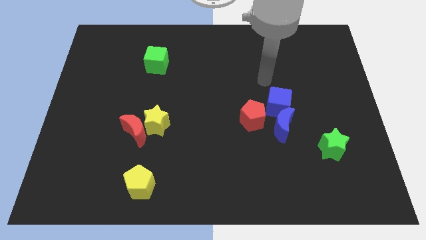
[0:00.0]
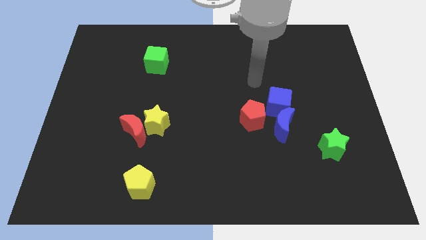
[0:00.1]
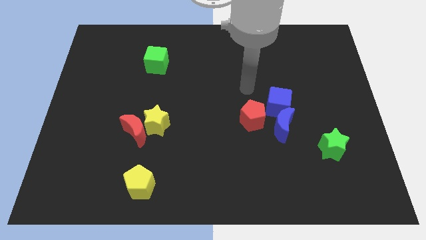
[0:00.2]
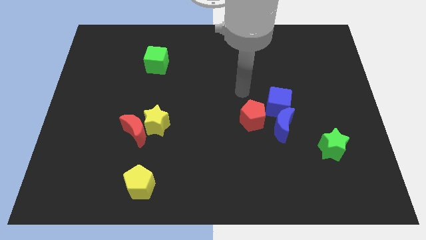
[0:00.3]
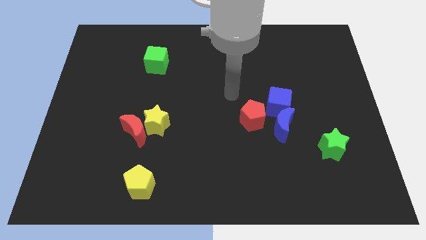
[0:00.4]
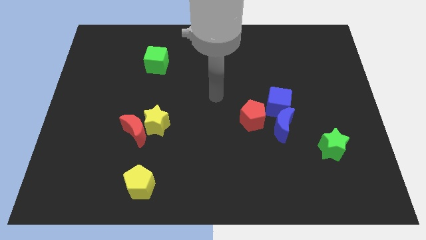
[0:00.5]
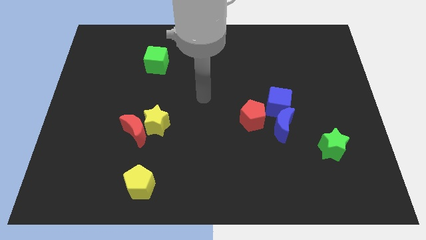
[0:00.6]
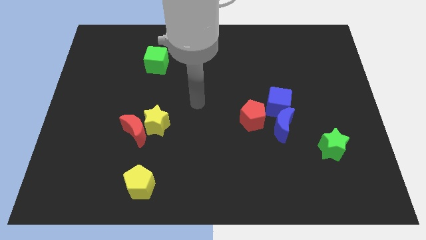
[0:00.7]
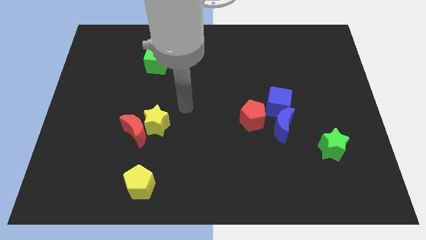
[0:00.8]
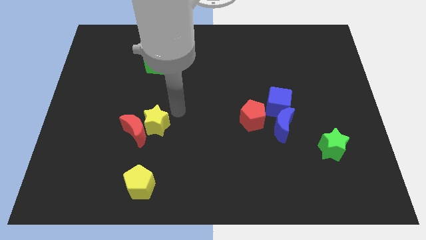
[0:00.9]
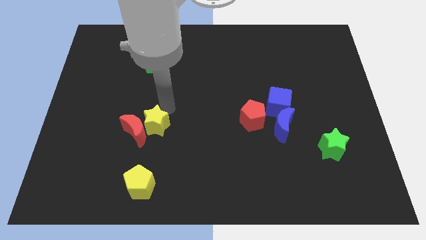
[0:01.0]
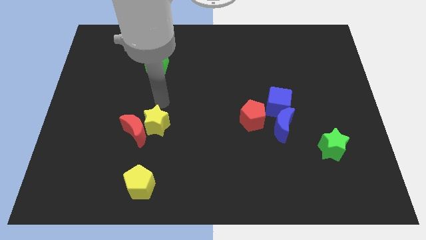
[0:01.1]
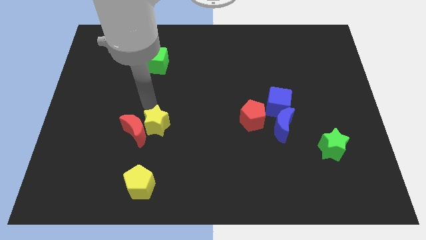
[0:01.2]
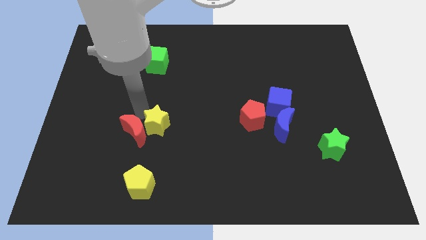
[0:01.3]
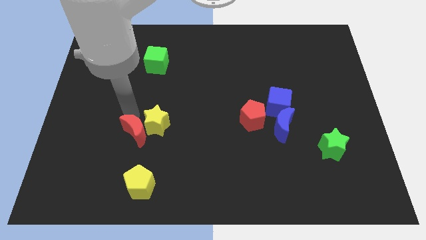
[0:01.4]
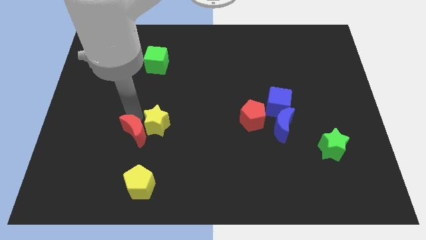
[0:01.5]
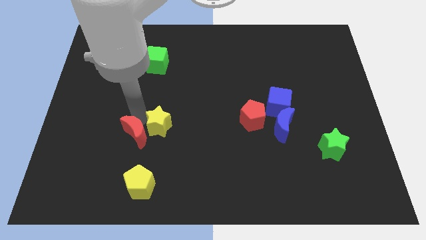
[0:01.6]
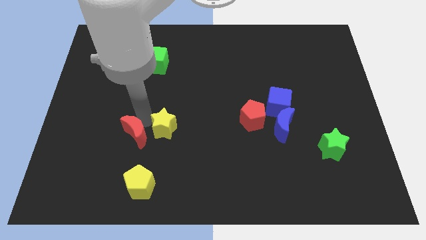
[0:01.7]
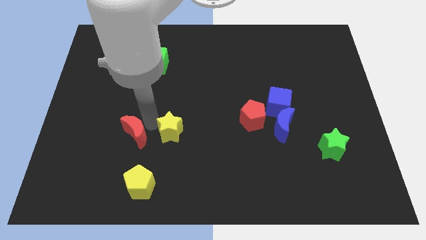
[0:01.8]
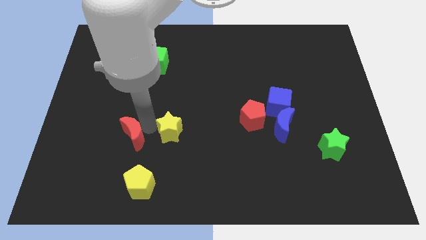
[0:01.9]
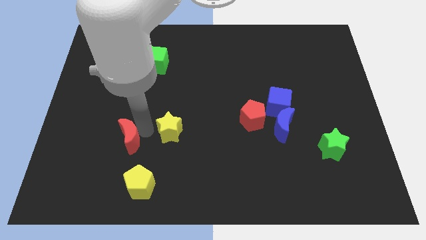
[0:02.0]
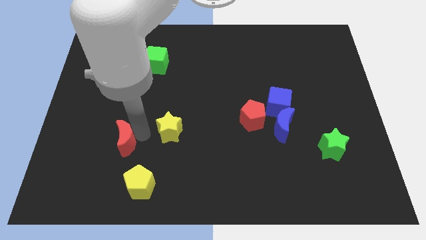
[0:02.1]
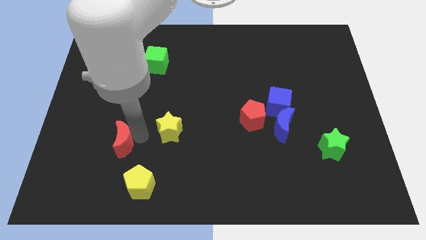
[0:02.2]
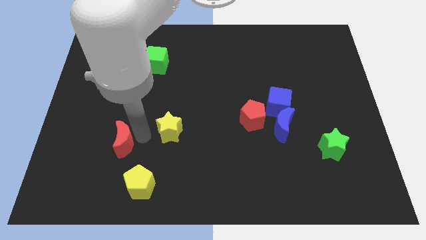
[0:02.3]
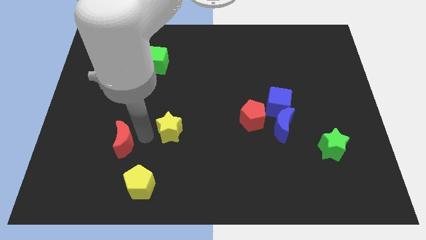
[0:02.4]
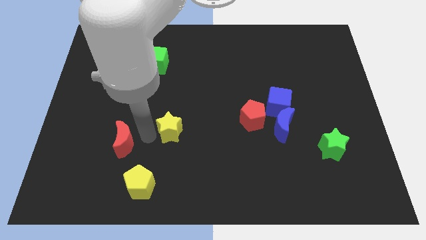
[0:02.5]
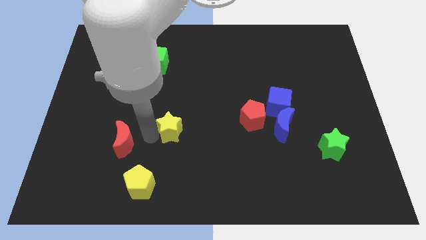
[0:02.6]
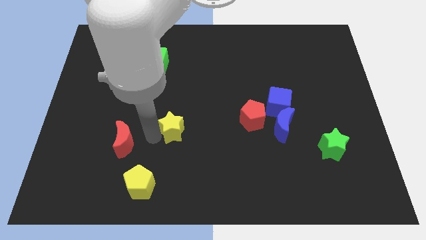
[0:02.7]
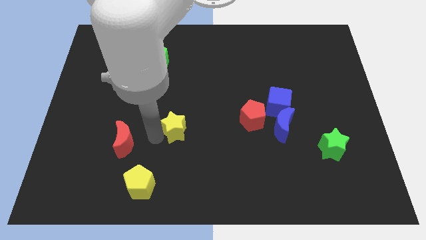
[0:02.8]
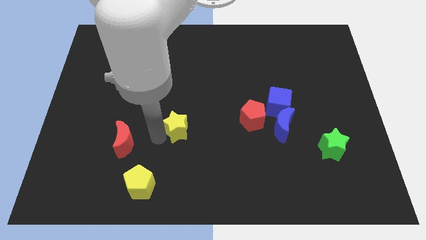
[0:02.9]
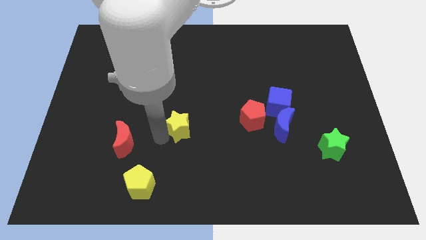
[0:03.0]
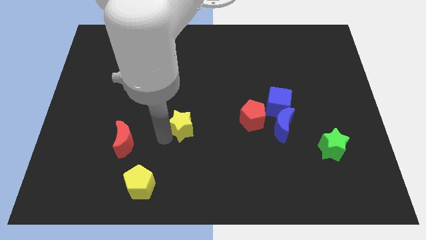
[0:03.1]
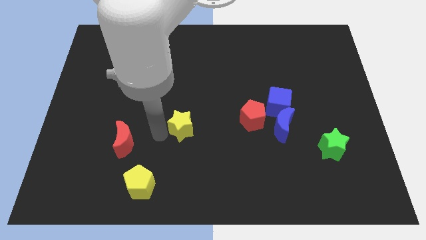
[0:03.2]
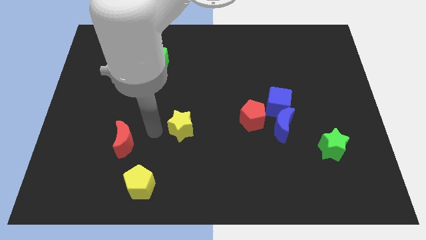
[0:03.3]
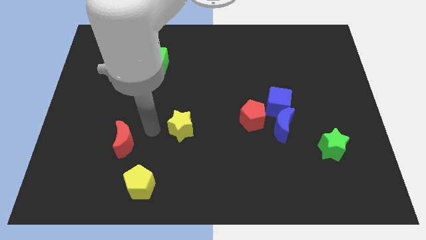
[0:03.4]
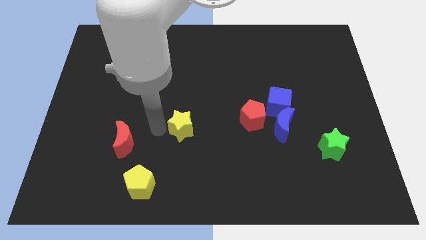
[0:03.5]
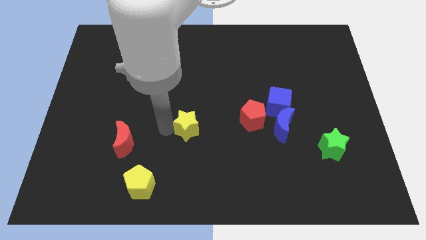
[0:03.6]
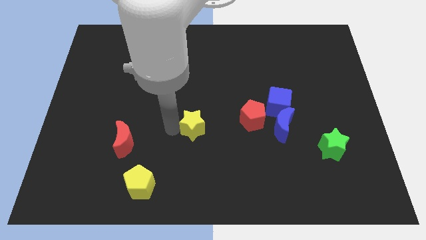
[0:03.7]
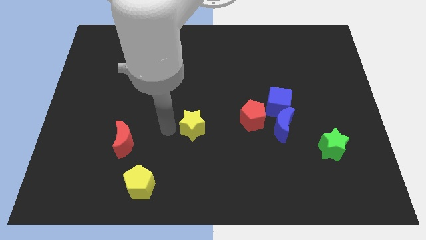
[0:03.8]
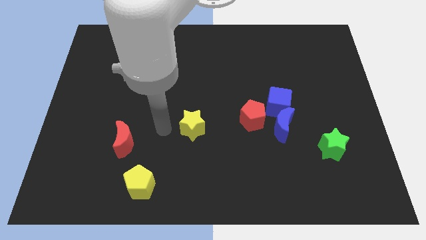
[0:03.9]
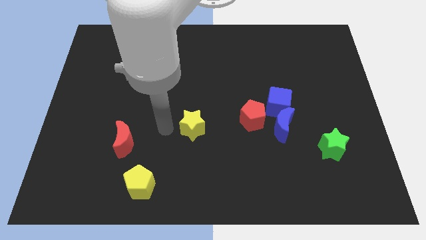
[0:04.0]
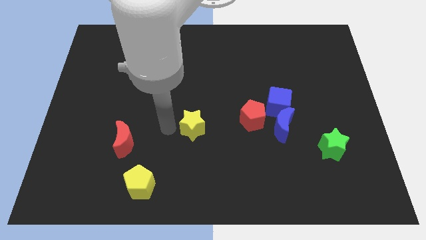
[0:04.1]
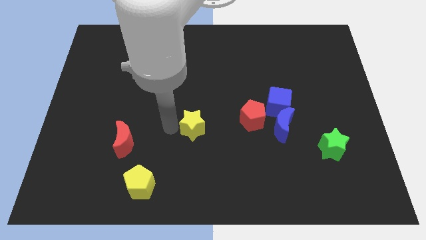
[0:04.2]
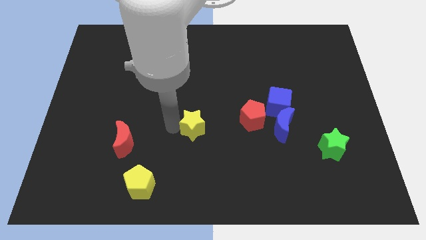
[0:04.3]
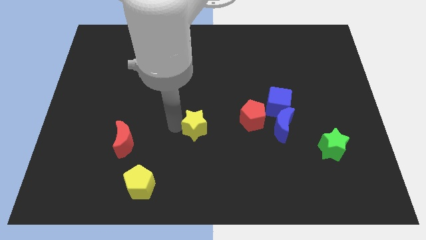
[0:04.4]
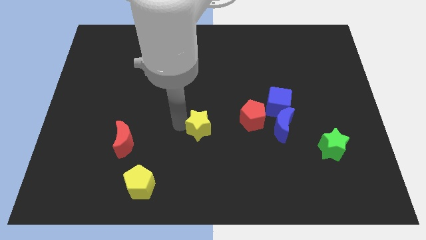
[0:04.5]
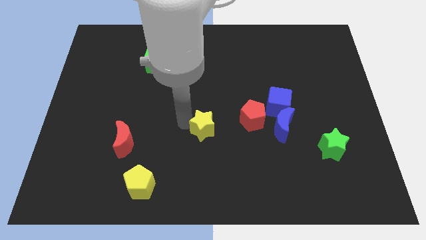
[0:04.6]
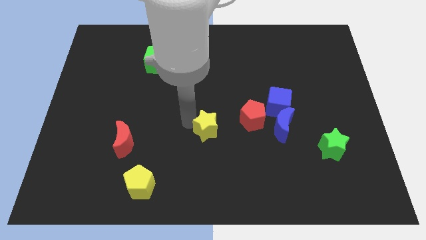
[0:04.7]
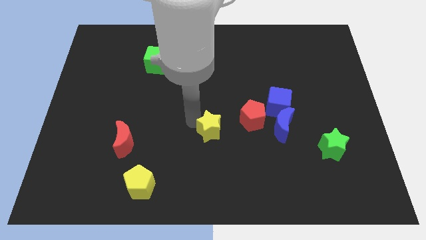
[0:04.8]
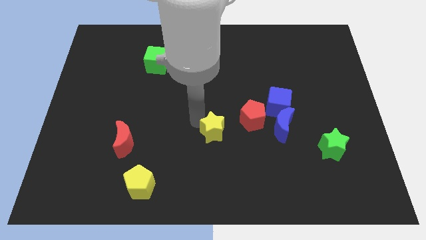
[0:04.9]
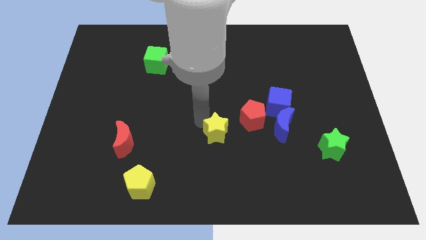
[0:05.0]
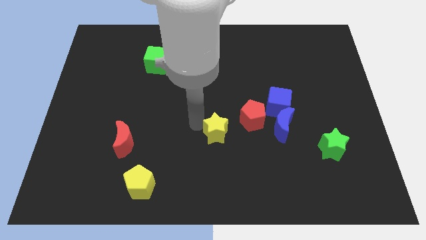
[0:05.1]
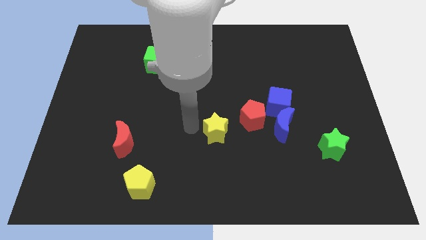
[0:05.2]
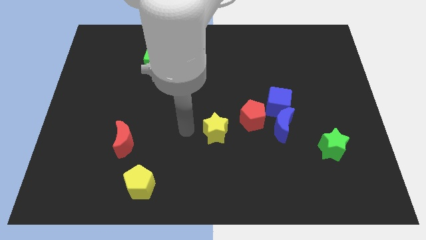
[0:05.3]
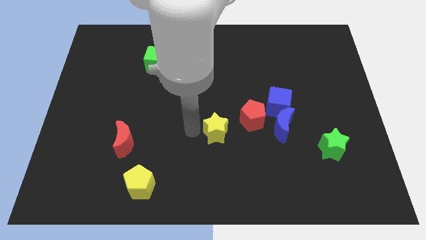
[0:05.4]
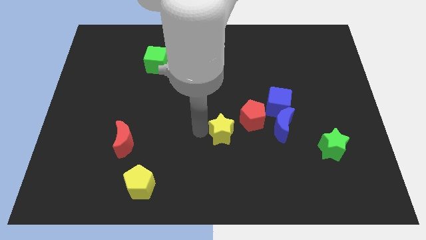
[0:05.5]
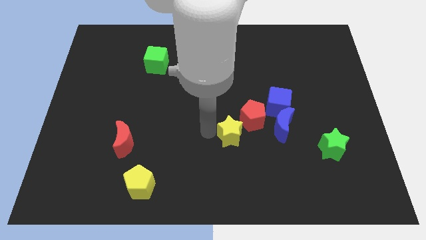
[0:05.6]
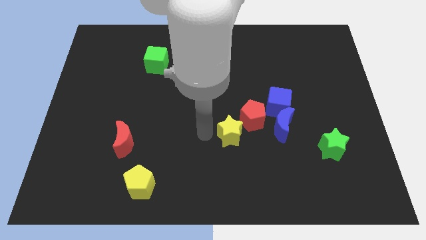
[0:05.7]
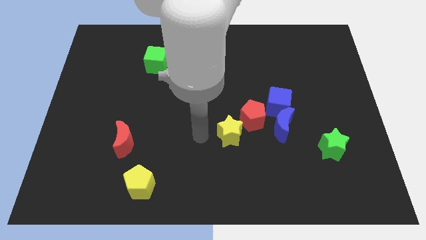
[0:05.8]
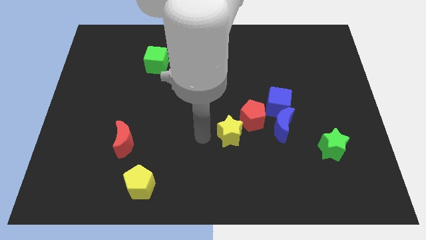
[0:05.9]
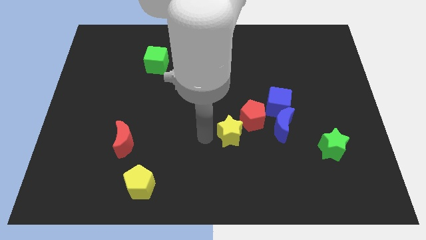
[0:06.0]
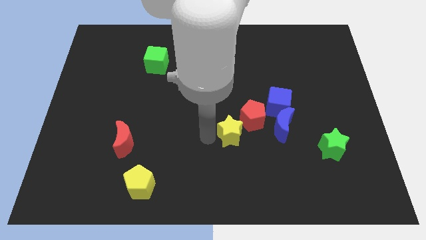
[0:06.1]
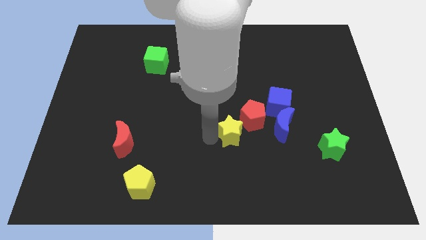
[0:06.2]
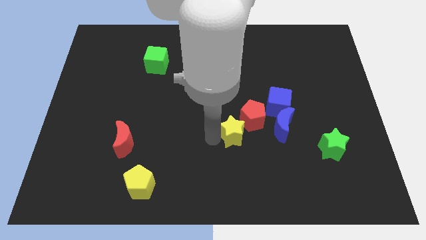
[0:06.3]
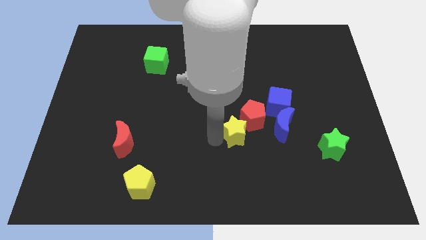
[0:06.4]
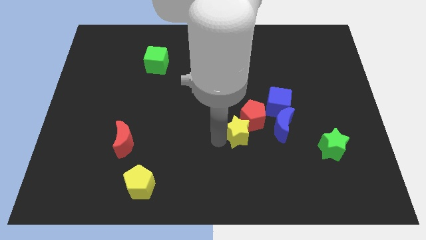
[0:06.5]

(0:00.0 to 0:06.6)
push the yellow star to the bottom left side of the blue cube
